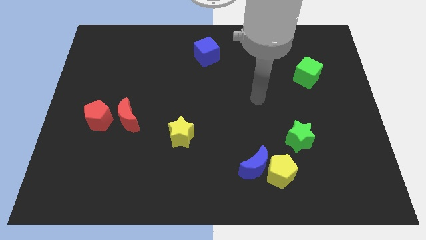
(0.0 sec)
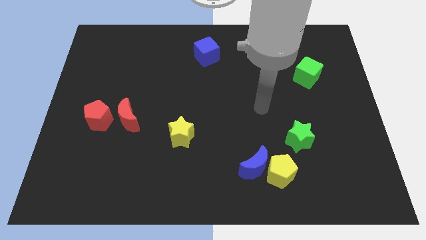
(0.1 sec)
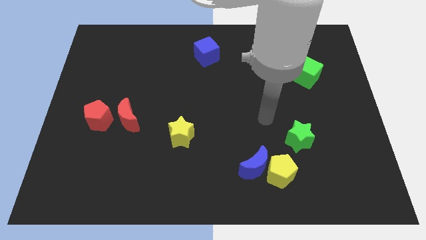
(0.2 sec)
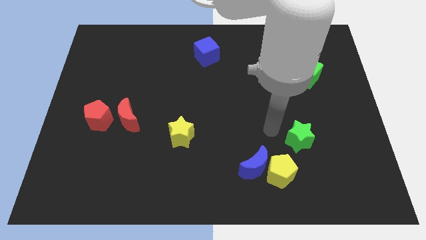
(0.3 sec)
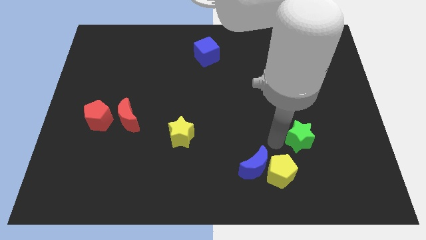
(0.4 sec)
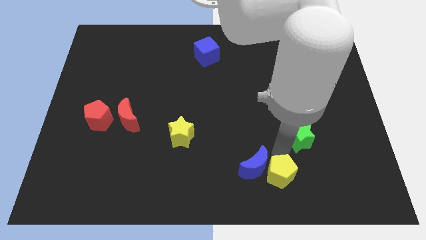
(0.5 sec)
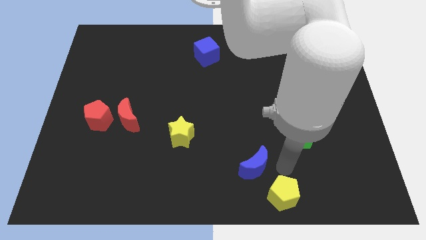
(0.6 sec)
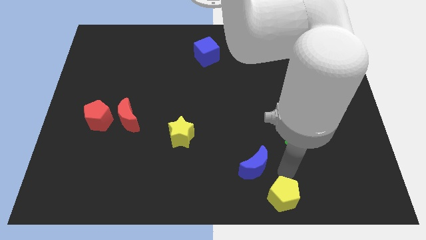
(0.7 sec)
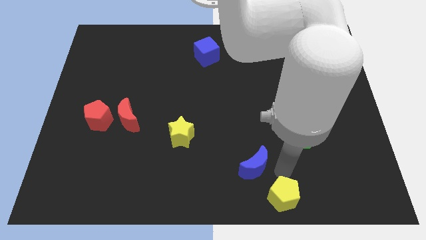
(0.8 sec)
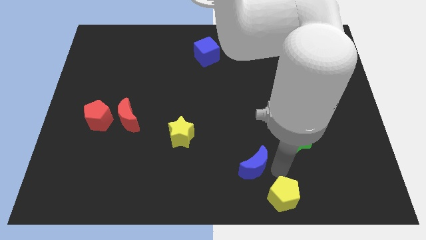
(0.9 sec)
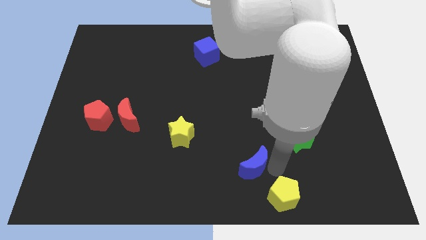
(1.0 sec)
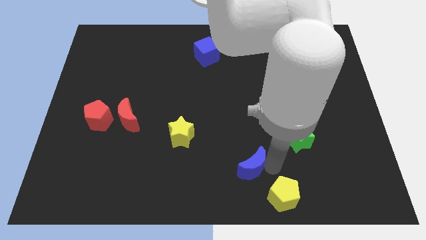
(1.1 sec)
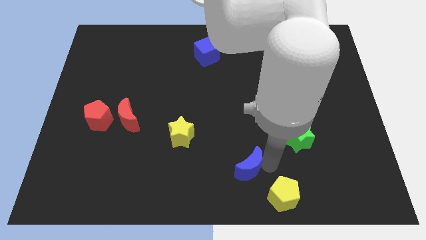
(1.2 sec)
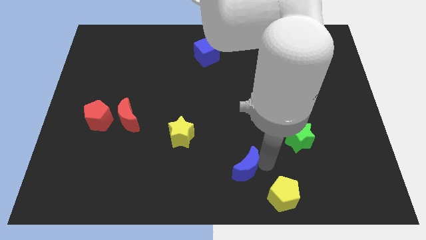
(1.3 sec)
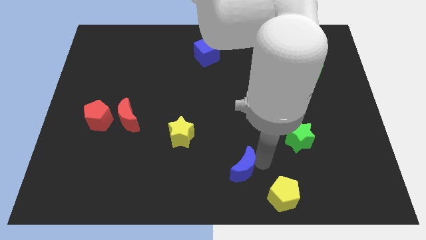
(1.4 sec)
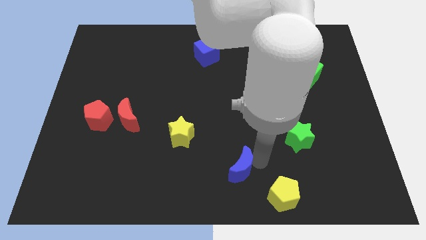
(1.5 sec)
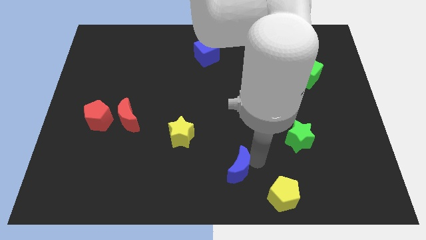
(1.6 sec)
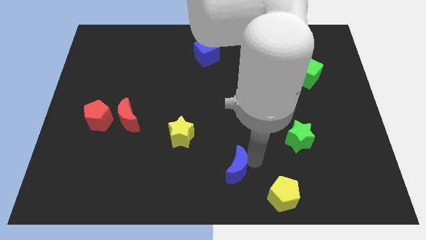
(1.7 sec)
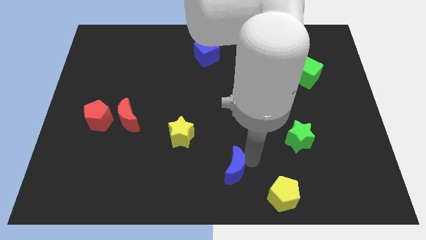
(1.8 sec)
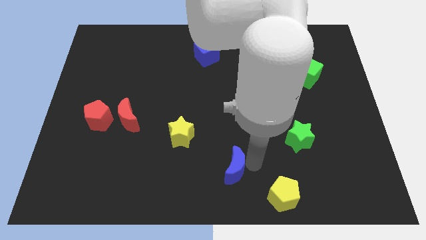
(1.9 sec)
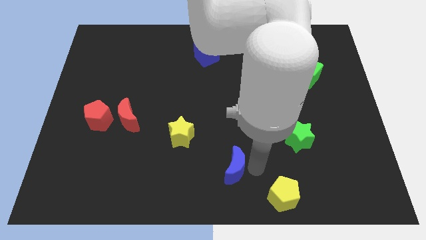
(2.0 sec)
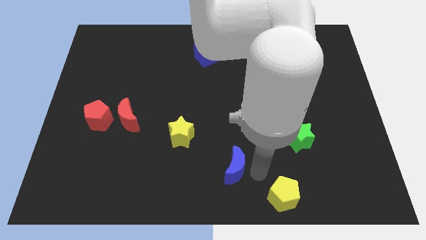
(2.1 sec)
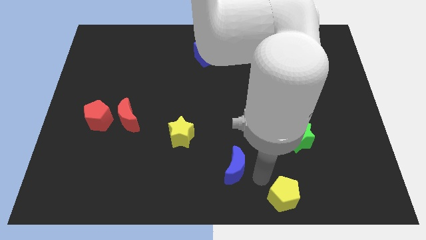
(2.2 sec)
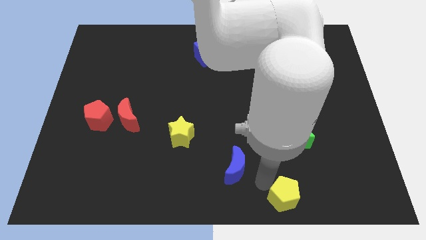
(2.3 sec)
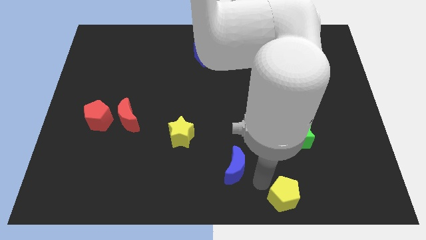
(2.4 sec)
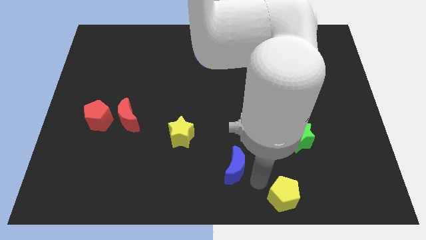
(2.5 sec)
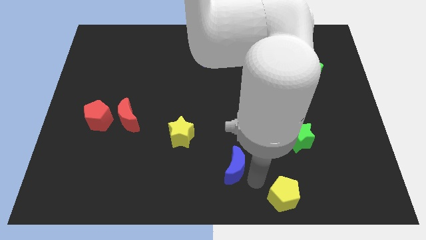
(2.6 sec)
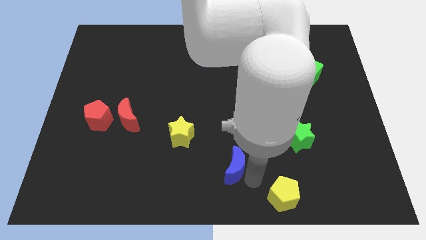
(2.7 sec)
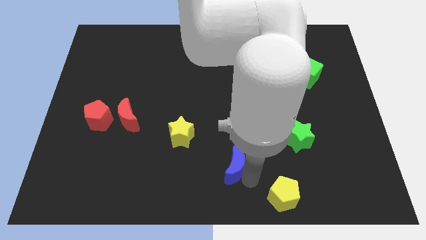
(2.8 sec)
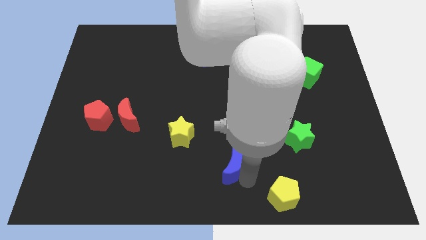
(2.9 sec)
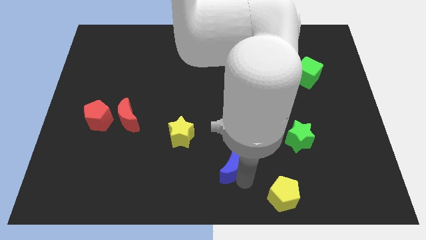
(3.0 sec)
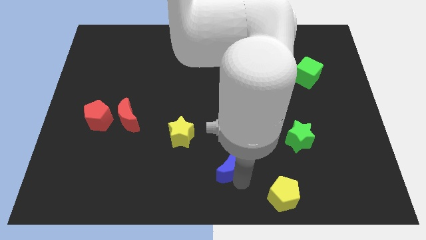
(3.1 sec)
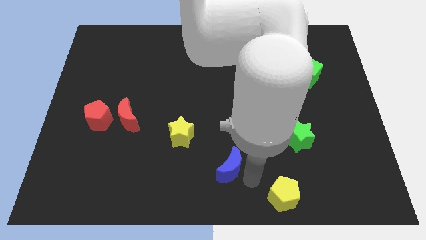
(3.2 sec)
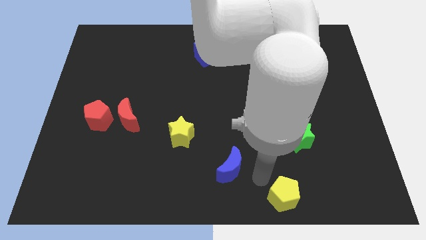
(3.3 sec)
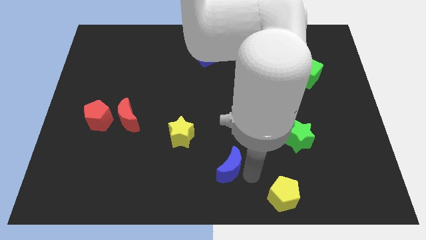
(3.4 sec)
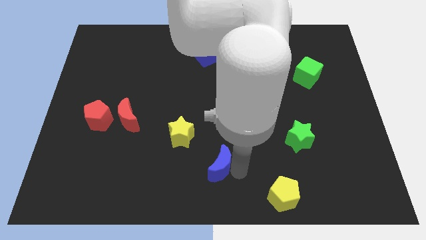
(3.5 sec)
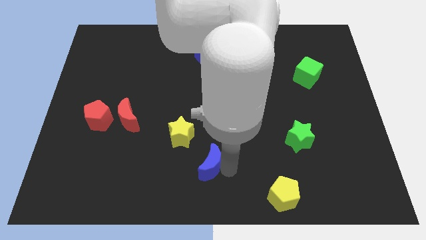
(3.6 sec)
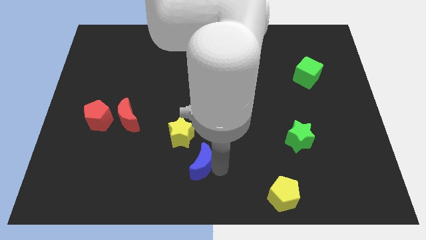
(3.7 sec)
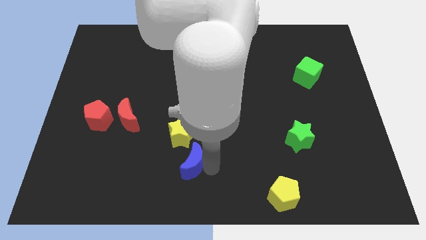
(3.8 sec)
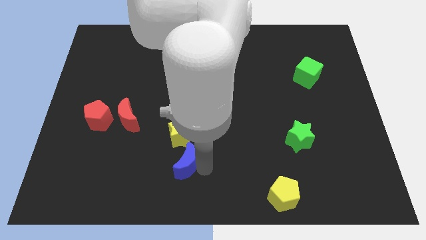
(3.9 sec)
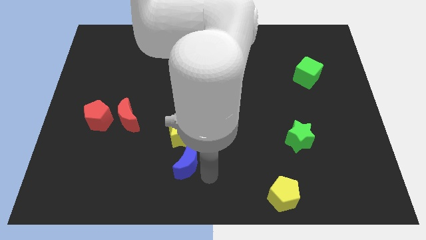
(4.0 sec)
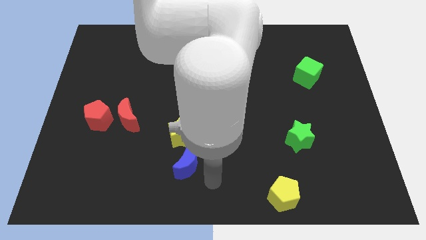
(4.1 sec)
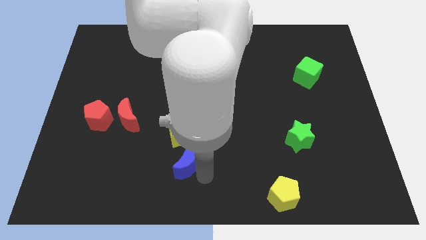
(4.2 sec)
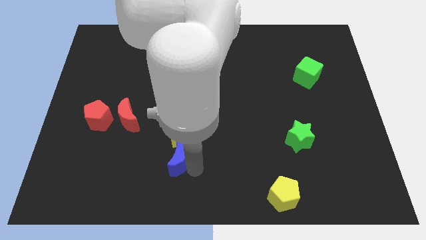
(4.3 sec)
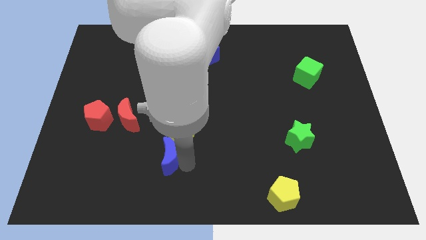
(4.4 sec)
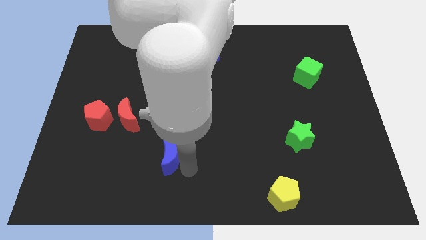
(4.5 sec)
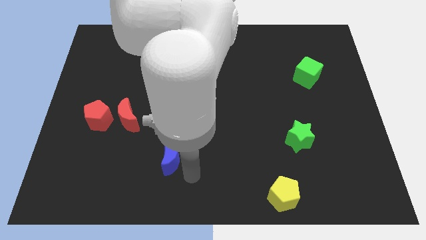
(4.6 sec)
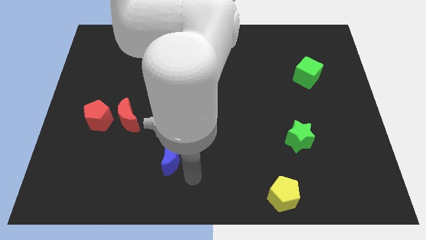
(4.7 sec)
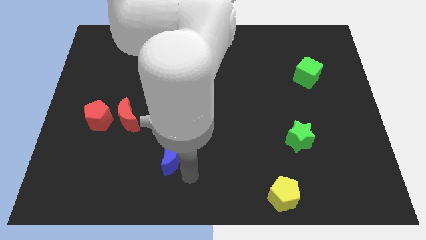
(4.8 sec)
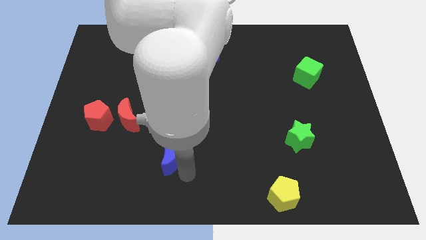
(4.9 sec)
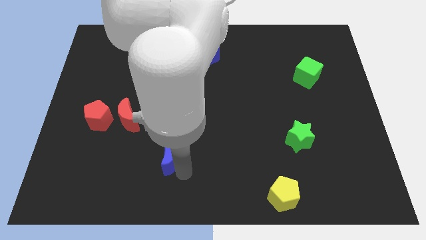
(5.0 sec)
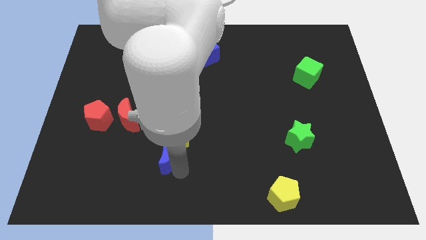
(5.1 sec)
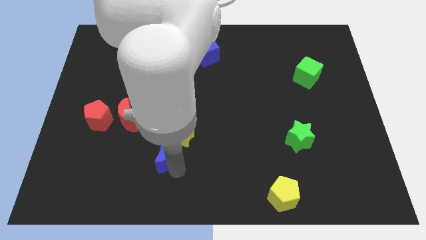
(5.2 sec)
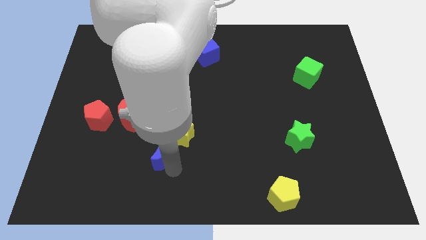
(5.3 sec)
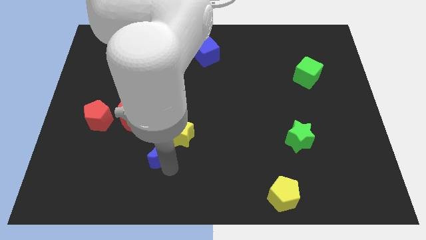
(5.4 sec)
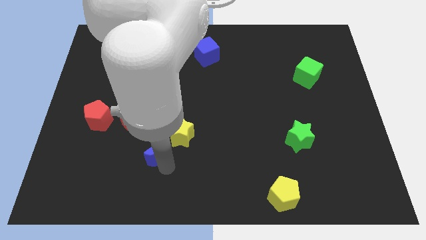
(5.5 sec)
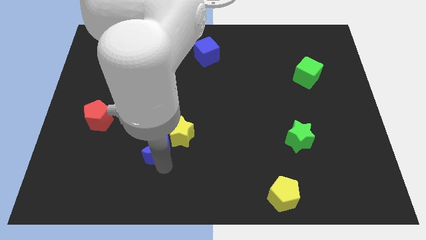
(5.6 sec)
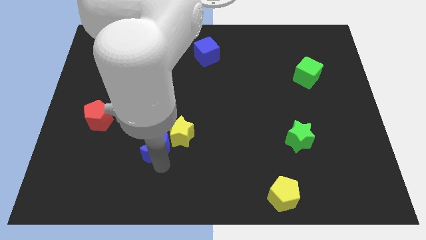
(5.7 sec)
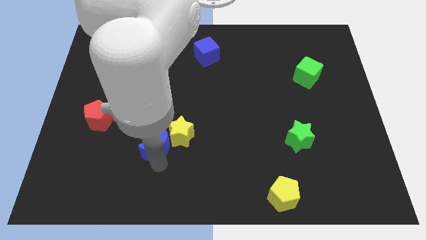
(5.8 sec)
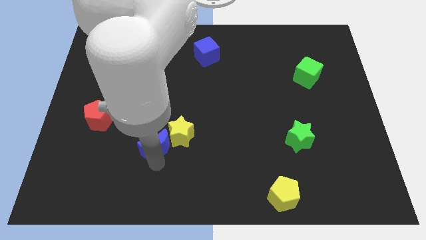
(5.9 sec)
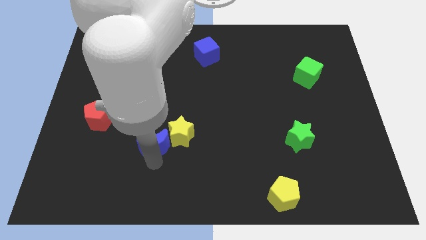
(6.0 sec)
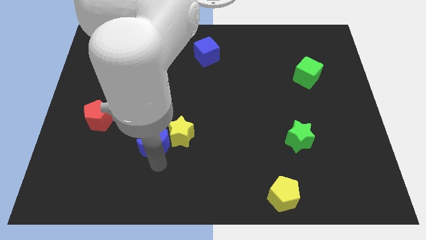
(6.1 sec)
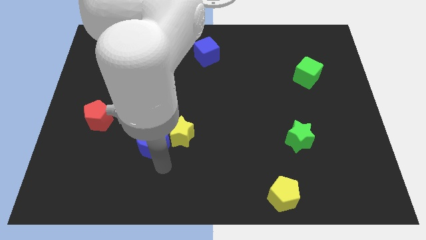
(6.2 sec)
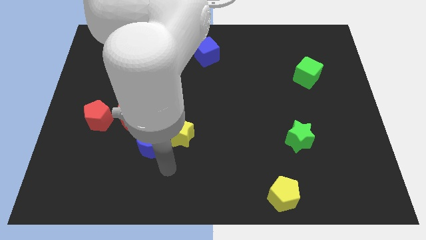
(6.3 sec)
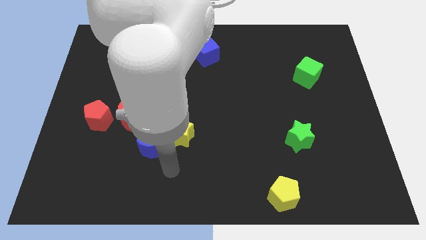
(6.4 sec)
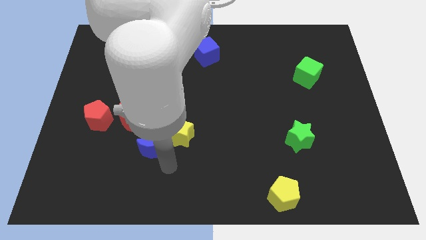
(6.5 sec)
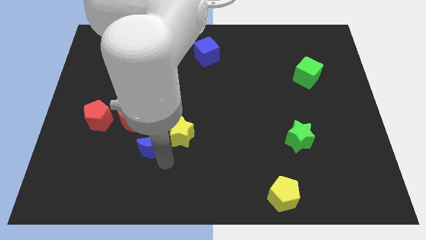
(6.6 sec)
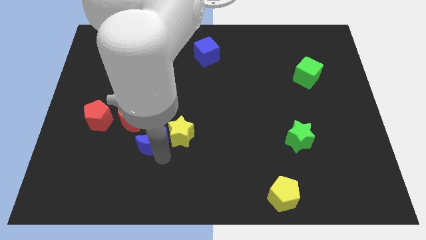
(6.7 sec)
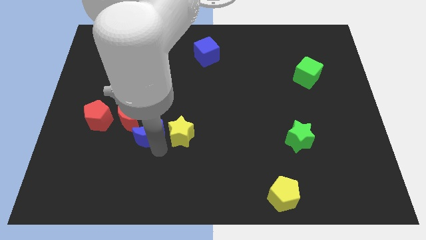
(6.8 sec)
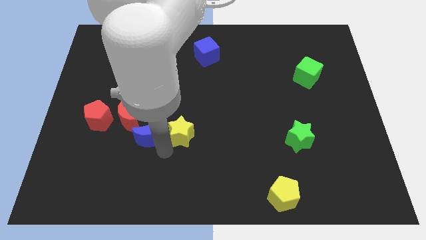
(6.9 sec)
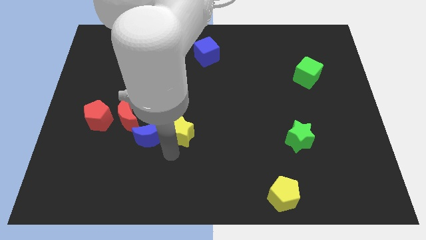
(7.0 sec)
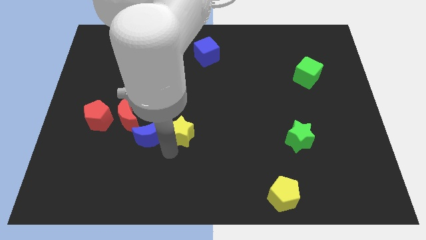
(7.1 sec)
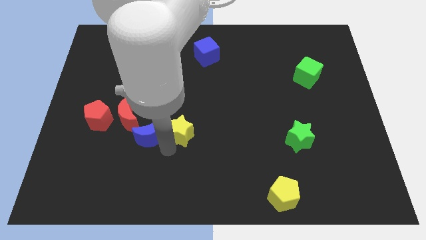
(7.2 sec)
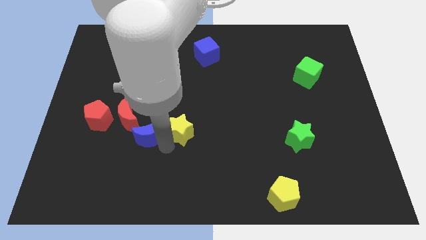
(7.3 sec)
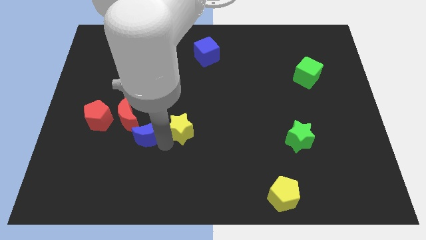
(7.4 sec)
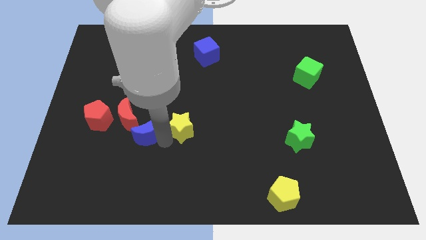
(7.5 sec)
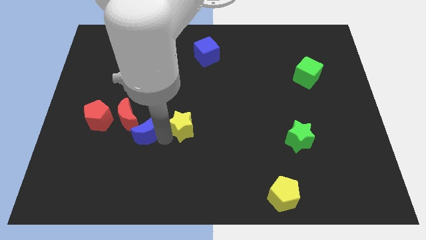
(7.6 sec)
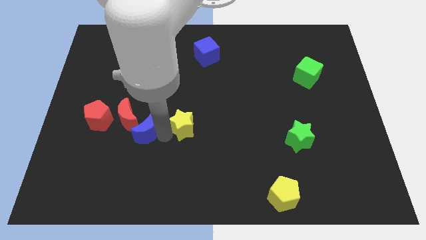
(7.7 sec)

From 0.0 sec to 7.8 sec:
push the blue moon towards the red moon
